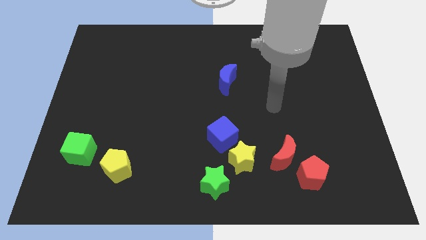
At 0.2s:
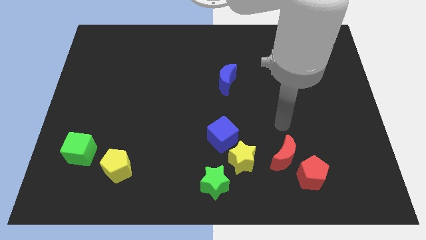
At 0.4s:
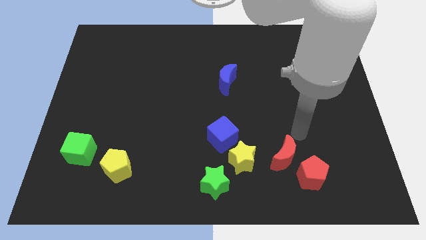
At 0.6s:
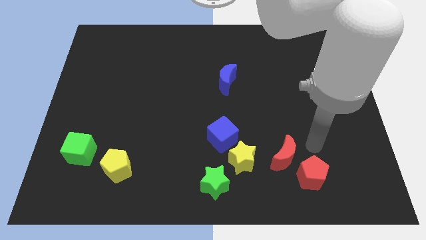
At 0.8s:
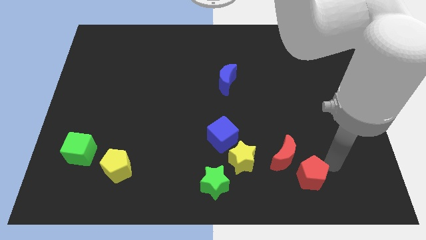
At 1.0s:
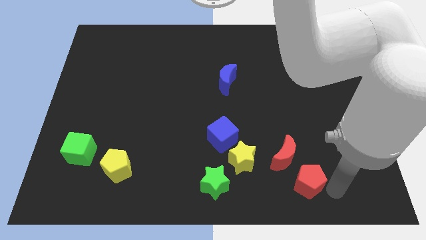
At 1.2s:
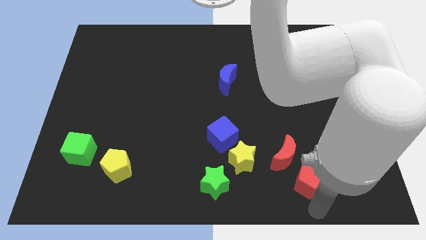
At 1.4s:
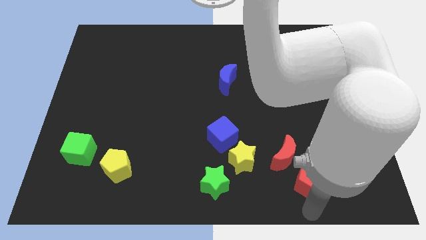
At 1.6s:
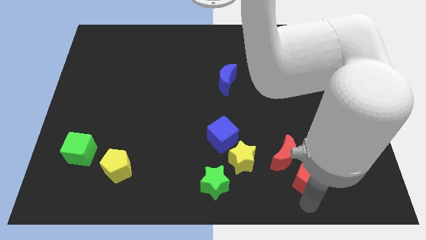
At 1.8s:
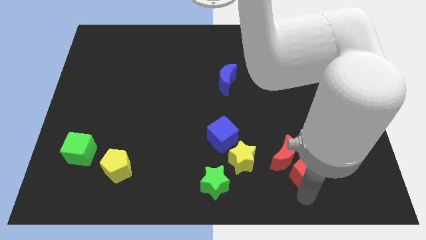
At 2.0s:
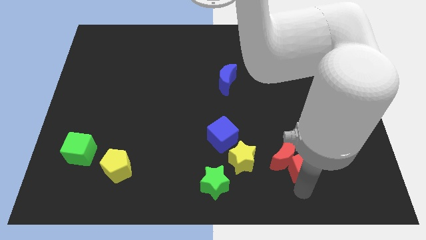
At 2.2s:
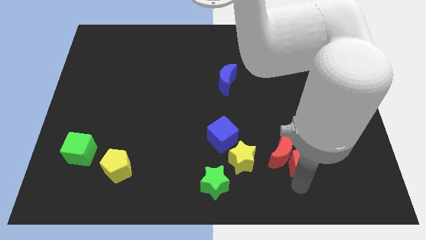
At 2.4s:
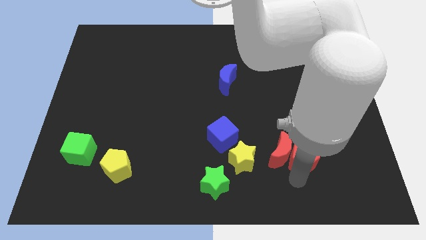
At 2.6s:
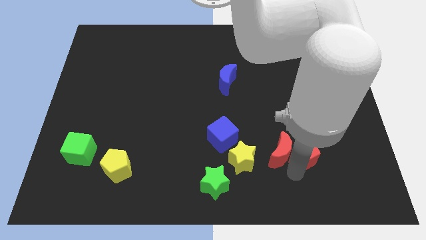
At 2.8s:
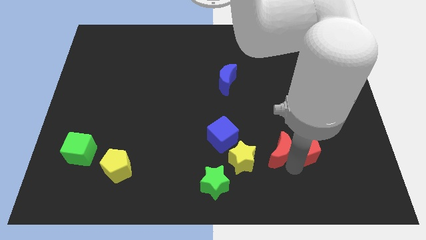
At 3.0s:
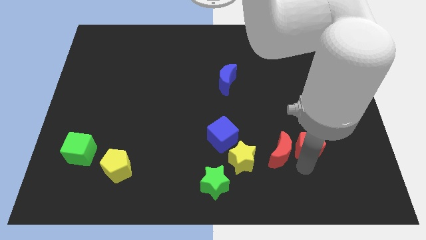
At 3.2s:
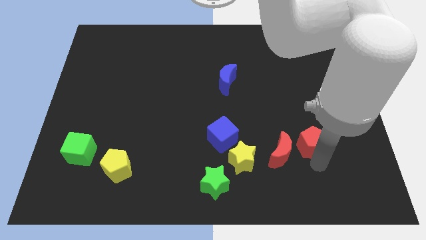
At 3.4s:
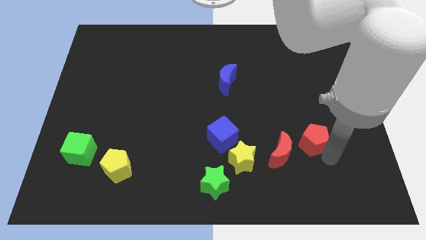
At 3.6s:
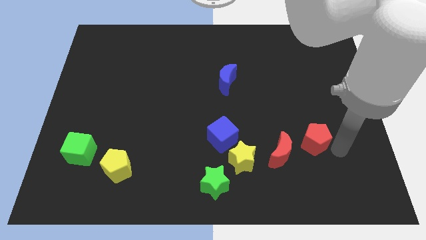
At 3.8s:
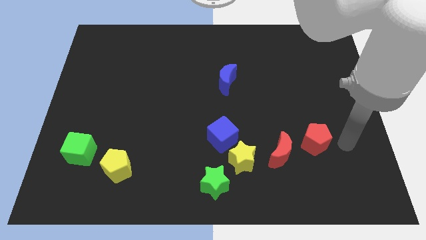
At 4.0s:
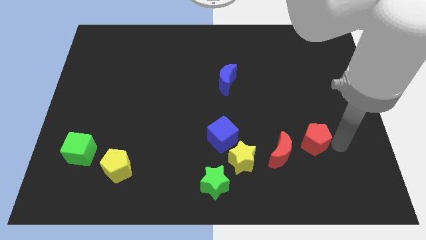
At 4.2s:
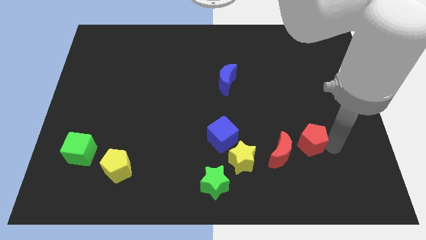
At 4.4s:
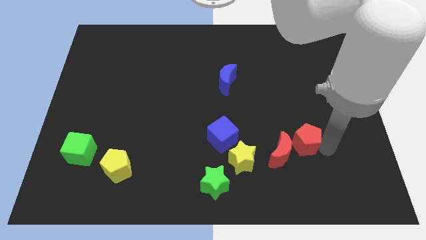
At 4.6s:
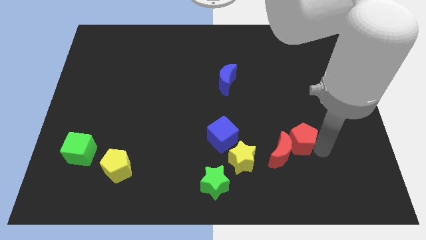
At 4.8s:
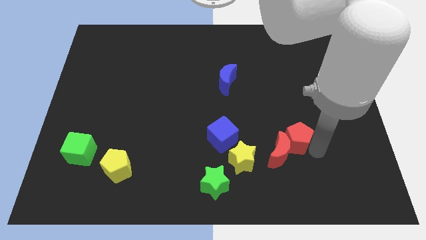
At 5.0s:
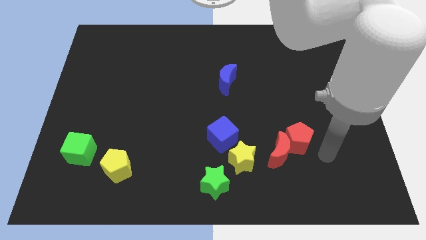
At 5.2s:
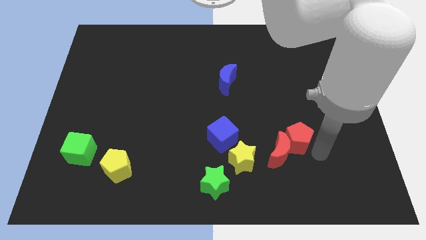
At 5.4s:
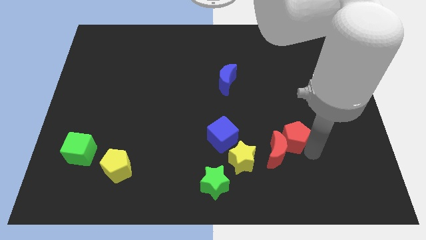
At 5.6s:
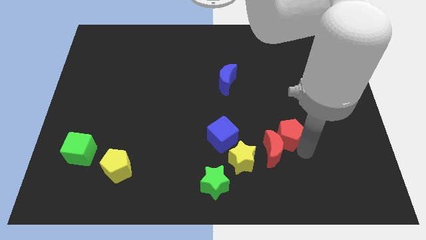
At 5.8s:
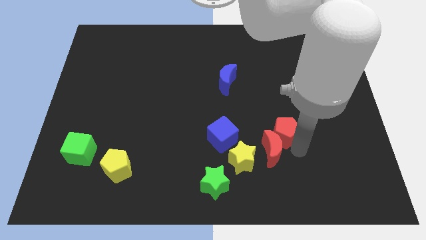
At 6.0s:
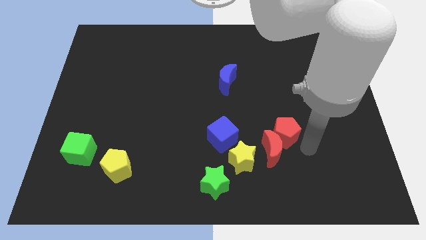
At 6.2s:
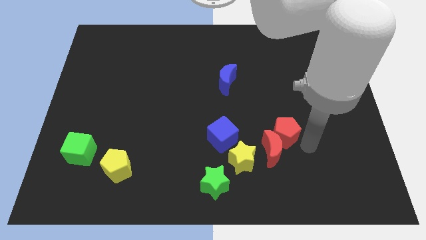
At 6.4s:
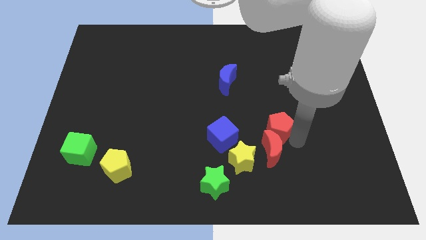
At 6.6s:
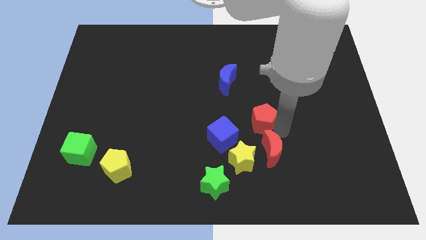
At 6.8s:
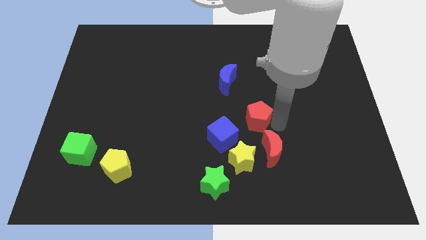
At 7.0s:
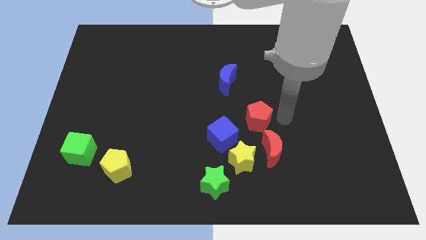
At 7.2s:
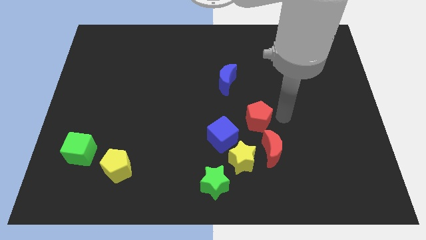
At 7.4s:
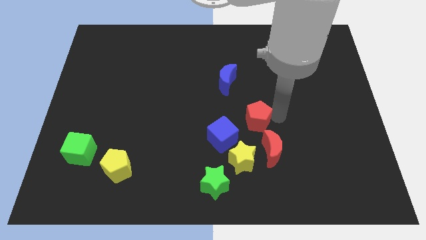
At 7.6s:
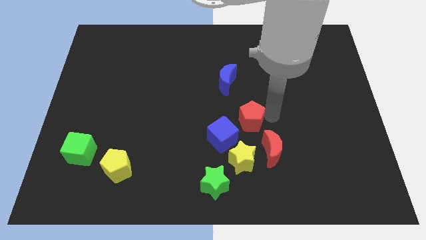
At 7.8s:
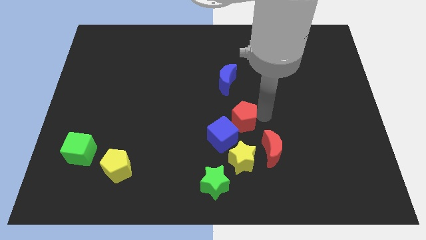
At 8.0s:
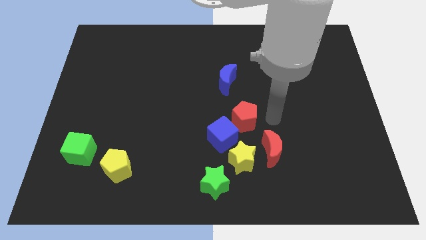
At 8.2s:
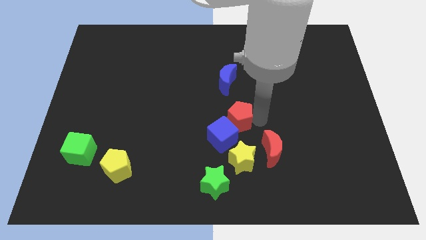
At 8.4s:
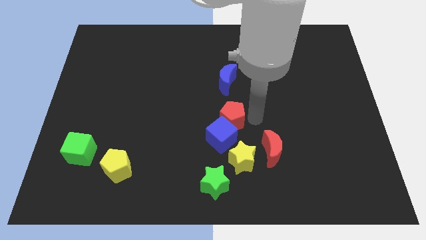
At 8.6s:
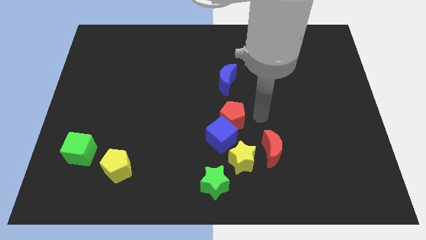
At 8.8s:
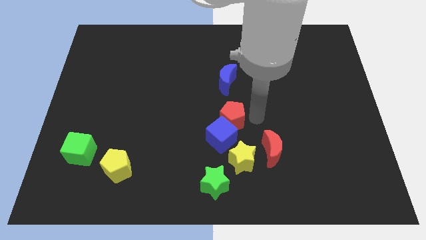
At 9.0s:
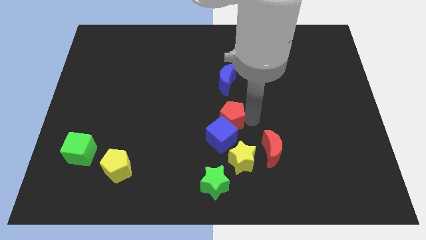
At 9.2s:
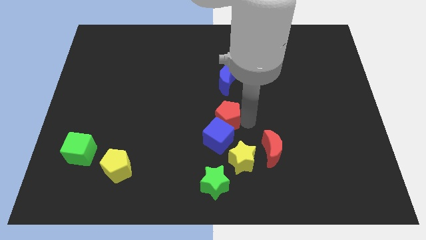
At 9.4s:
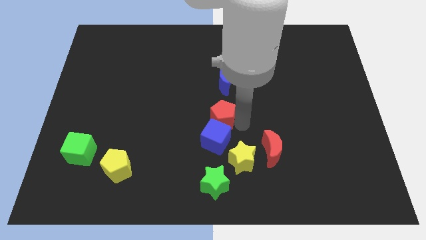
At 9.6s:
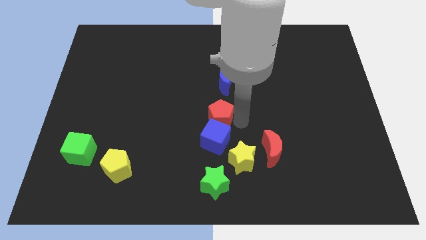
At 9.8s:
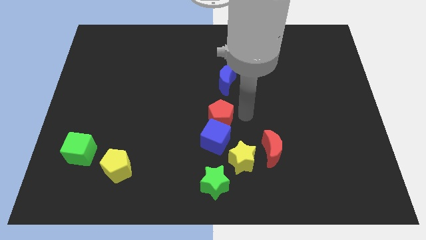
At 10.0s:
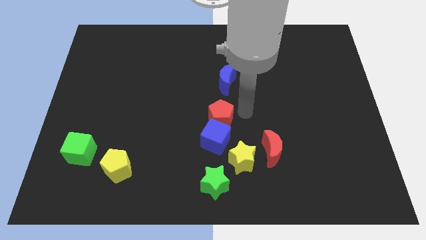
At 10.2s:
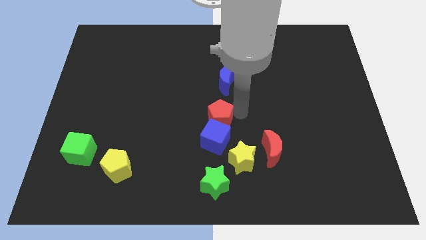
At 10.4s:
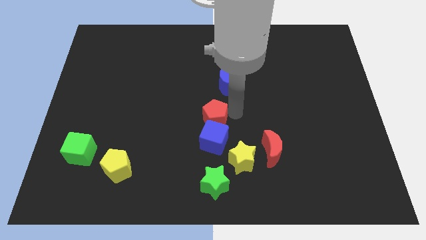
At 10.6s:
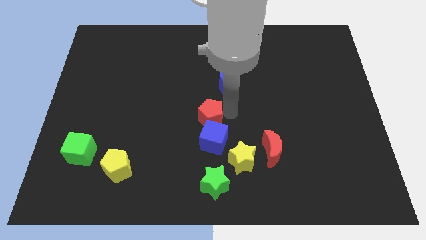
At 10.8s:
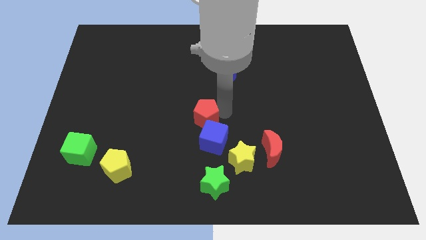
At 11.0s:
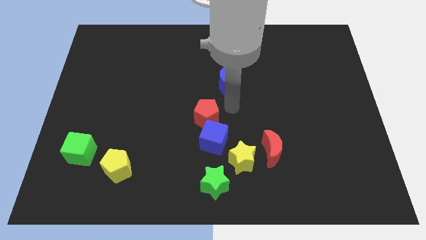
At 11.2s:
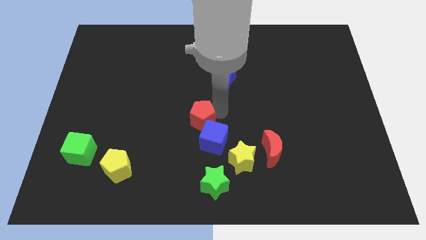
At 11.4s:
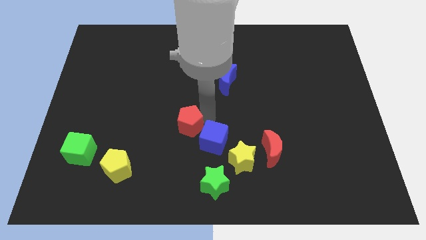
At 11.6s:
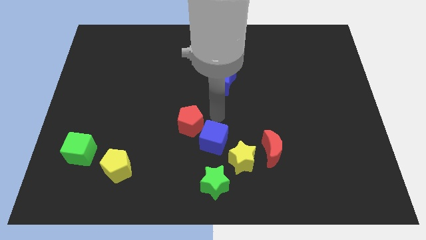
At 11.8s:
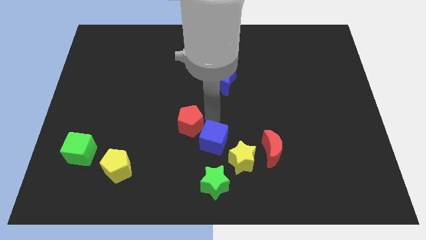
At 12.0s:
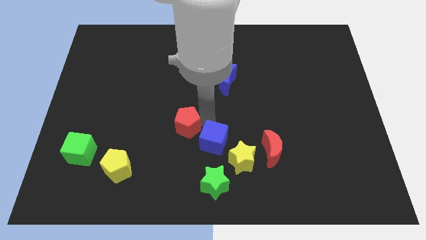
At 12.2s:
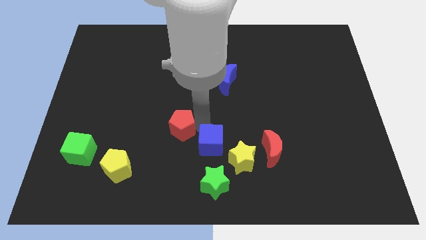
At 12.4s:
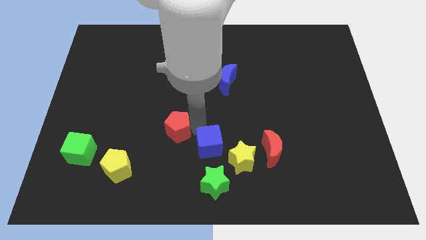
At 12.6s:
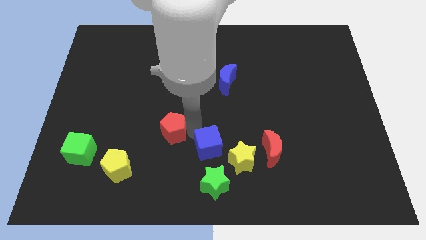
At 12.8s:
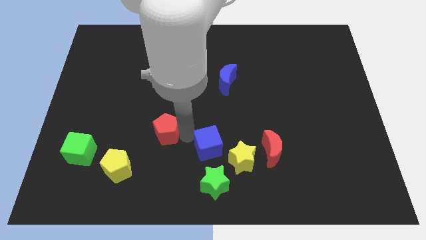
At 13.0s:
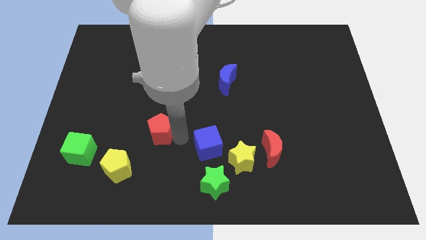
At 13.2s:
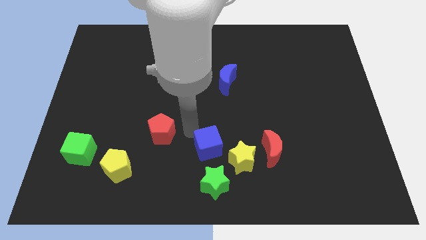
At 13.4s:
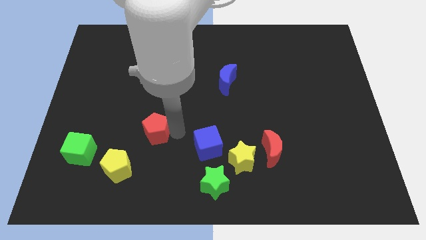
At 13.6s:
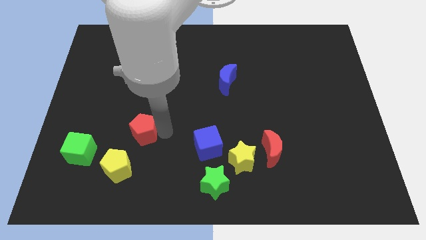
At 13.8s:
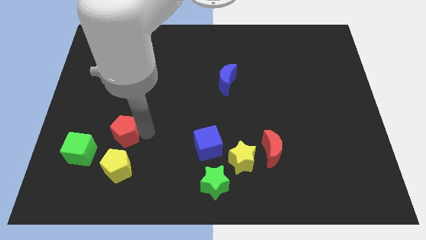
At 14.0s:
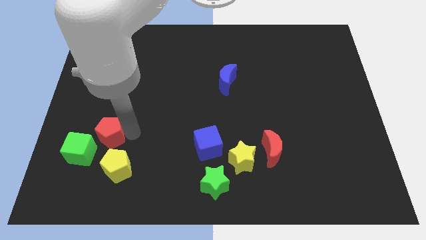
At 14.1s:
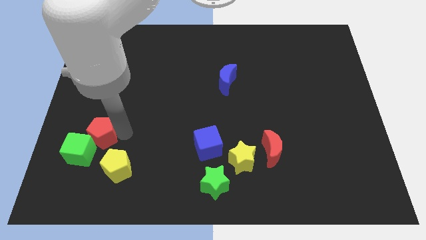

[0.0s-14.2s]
push the red pentagon close to the green cube
